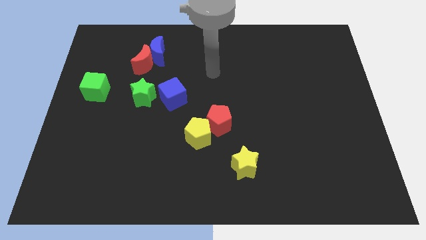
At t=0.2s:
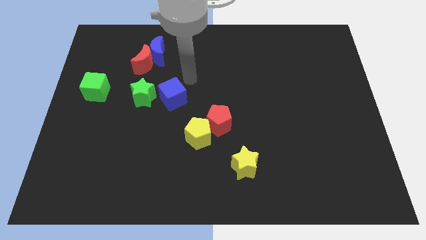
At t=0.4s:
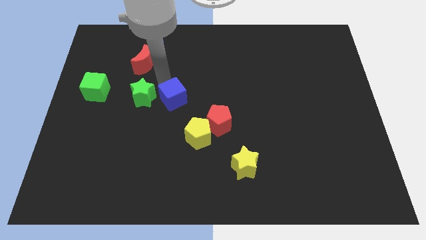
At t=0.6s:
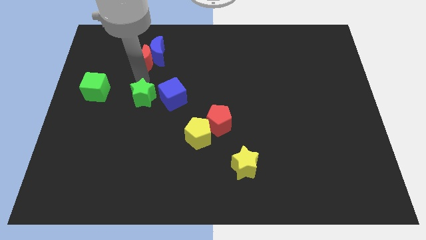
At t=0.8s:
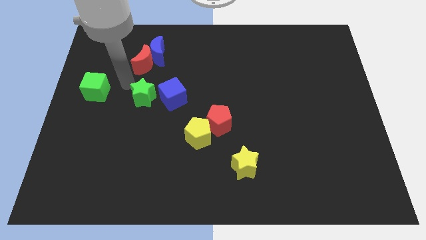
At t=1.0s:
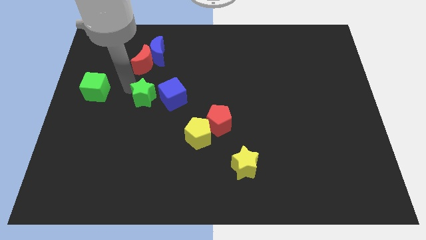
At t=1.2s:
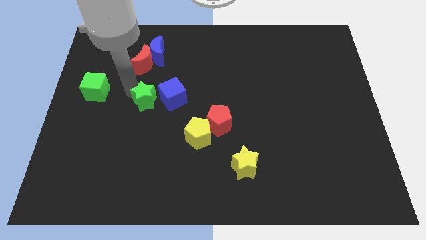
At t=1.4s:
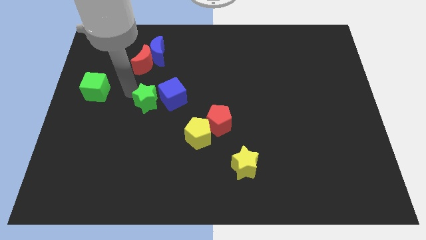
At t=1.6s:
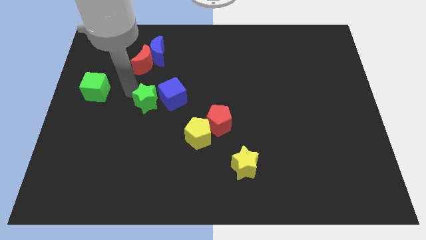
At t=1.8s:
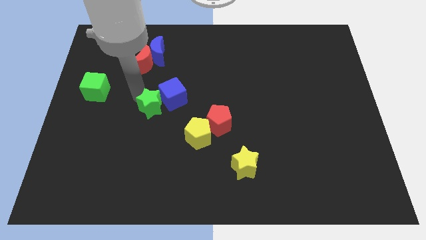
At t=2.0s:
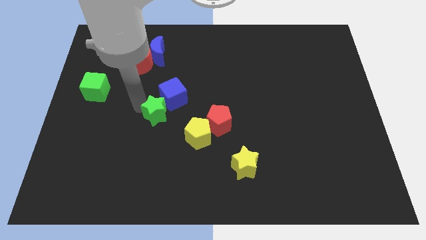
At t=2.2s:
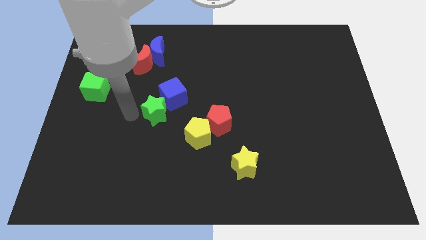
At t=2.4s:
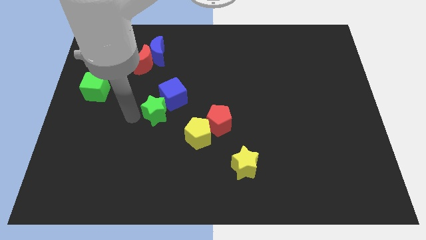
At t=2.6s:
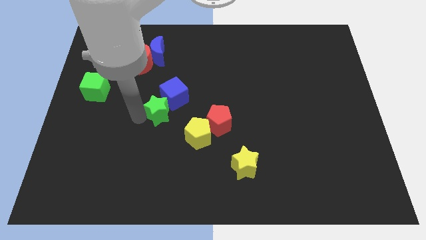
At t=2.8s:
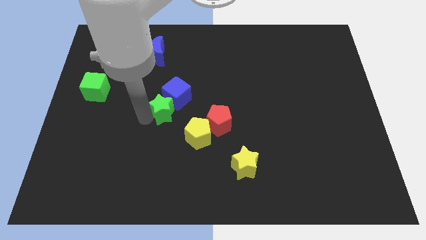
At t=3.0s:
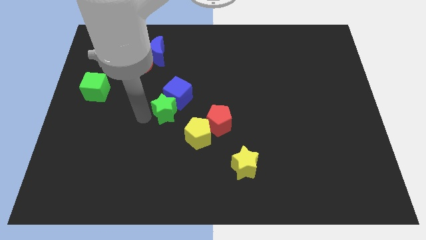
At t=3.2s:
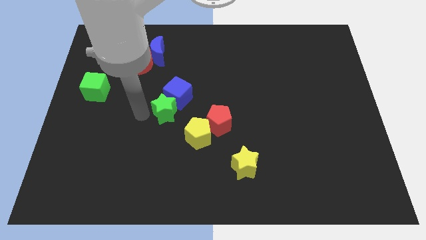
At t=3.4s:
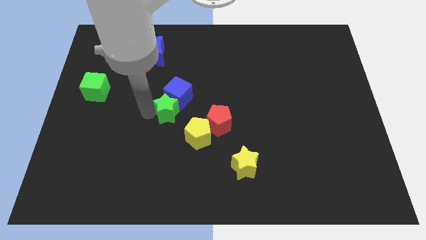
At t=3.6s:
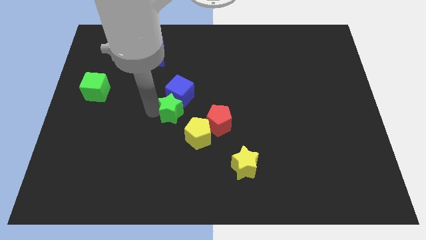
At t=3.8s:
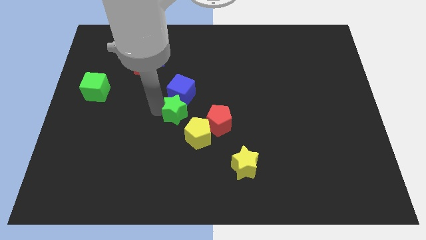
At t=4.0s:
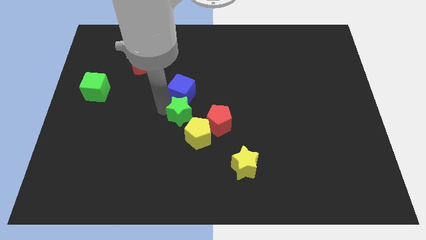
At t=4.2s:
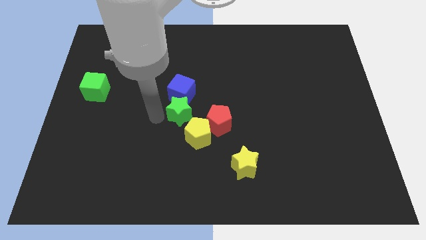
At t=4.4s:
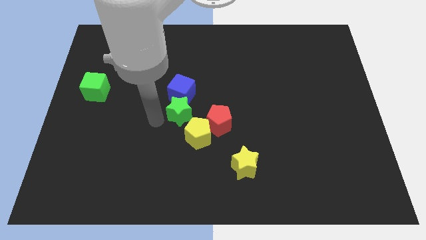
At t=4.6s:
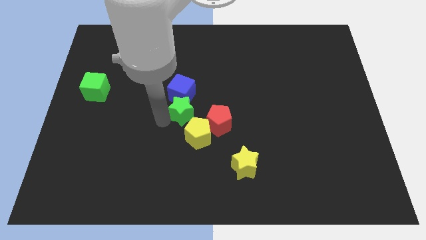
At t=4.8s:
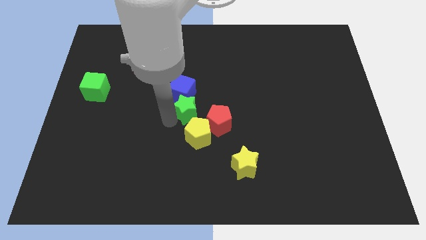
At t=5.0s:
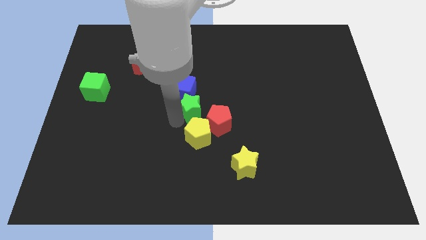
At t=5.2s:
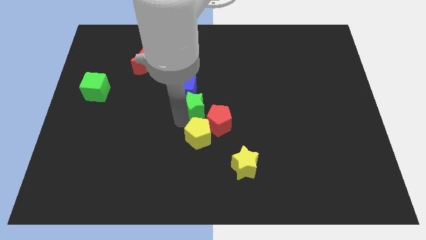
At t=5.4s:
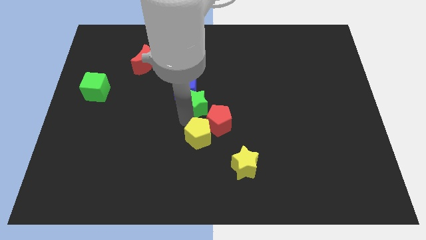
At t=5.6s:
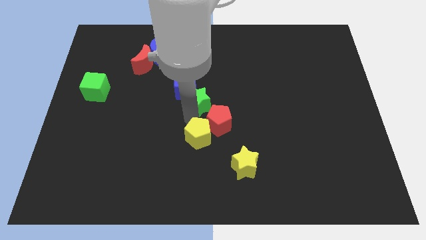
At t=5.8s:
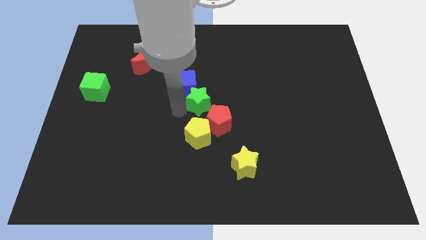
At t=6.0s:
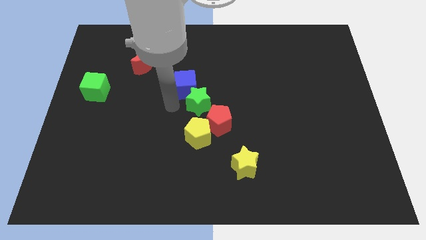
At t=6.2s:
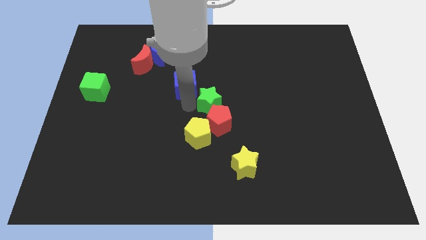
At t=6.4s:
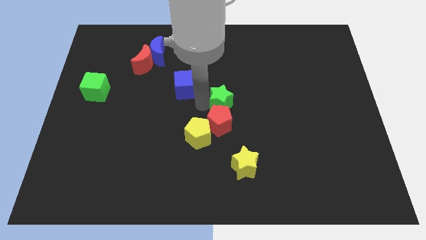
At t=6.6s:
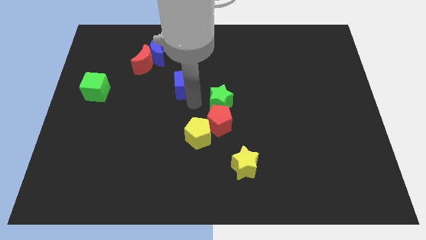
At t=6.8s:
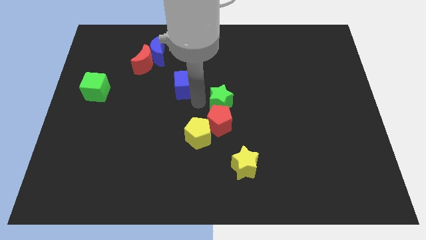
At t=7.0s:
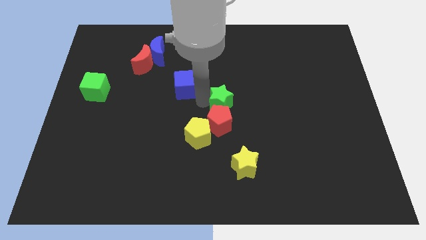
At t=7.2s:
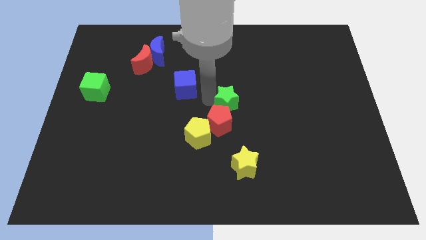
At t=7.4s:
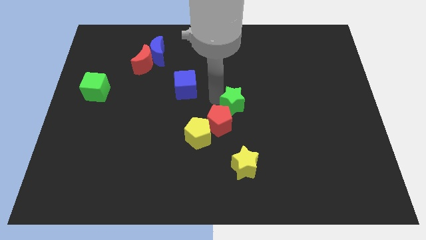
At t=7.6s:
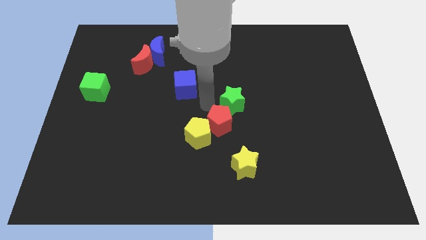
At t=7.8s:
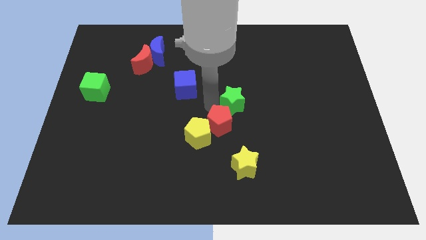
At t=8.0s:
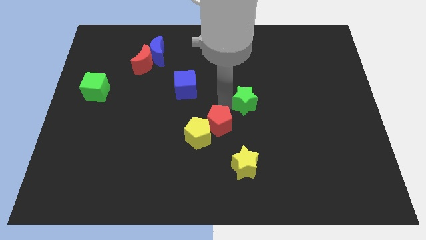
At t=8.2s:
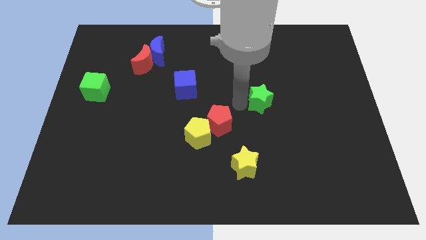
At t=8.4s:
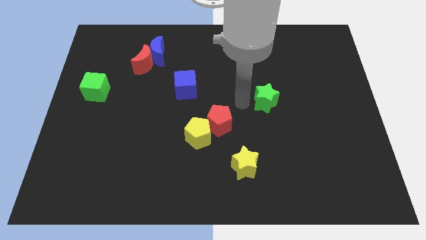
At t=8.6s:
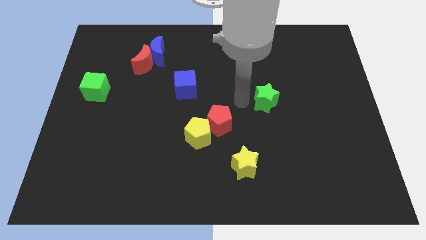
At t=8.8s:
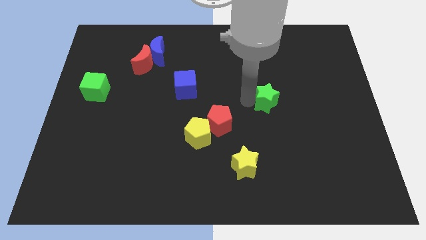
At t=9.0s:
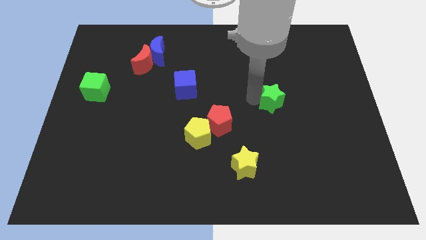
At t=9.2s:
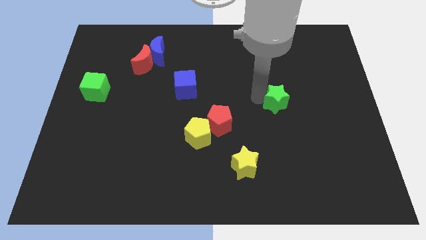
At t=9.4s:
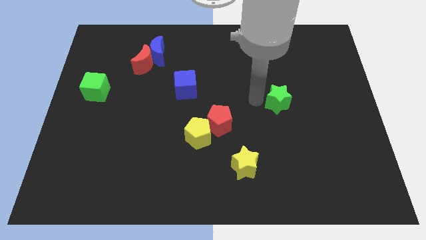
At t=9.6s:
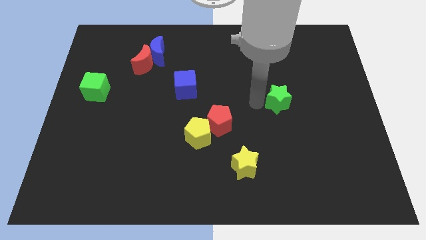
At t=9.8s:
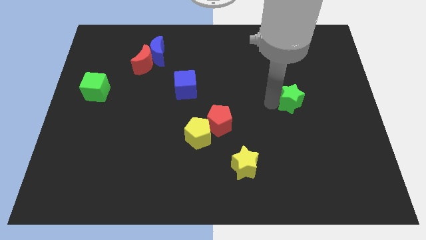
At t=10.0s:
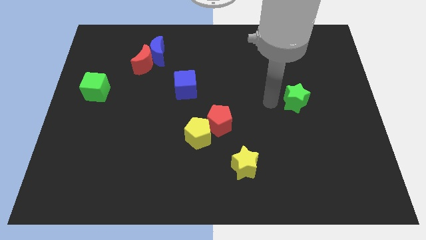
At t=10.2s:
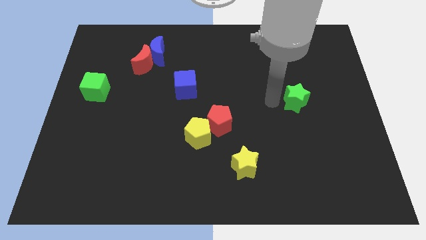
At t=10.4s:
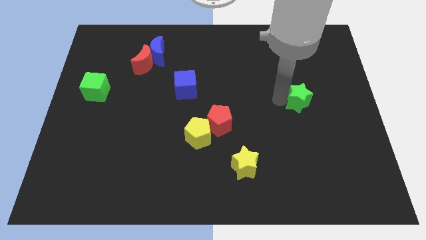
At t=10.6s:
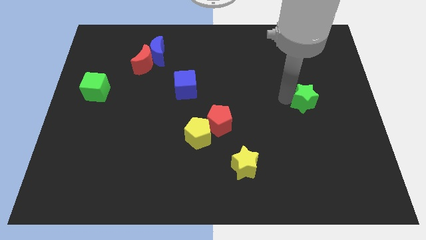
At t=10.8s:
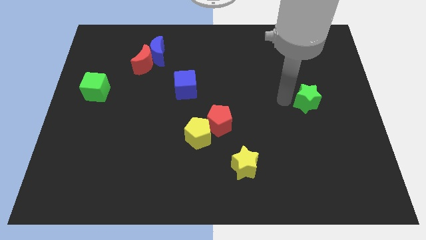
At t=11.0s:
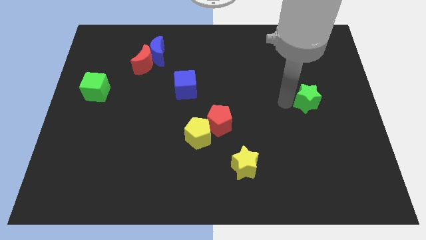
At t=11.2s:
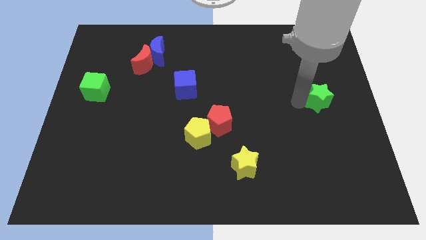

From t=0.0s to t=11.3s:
slide the green star to the right side of the board
